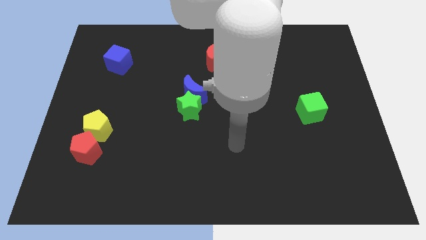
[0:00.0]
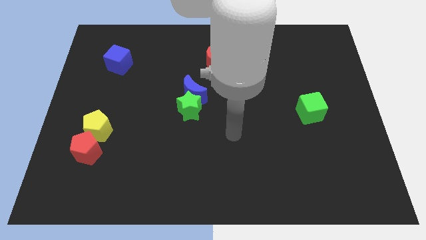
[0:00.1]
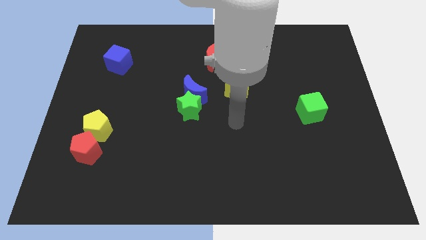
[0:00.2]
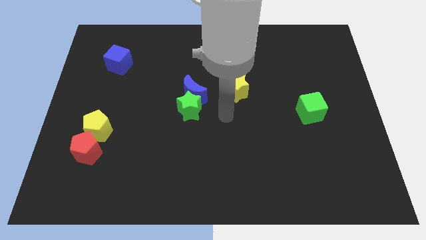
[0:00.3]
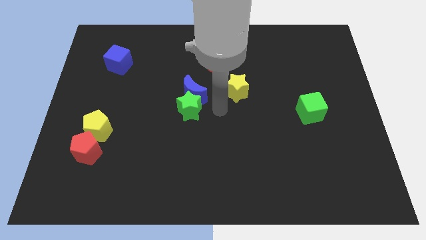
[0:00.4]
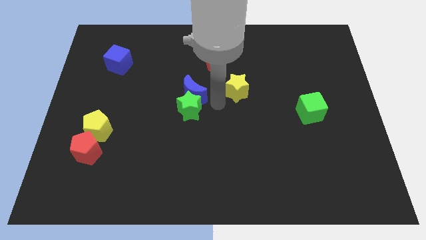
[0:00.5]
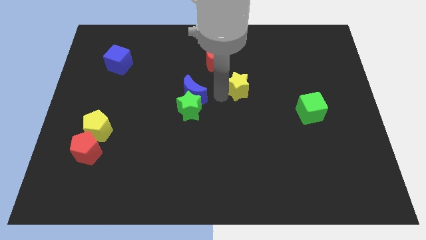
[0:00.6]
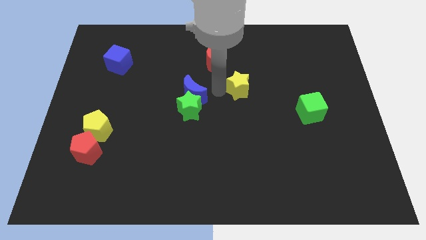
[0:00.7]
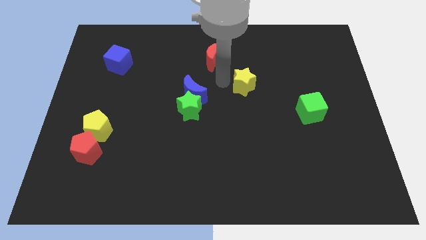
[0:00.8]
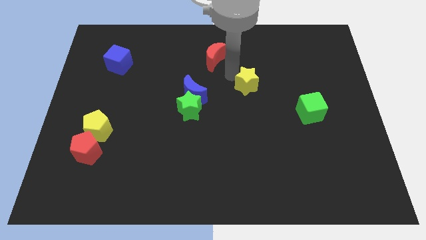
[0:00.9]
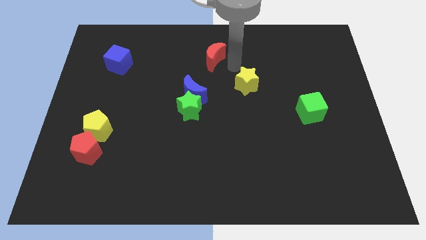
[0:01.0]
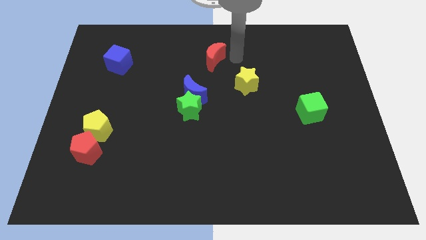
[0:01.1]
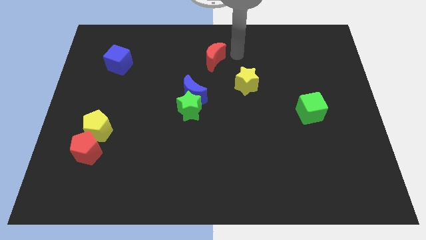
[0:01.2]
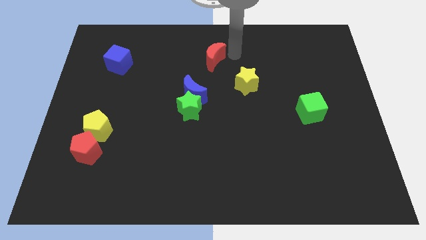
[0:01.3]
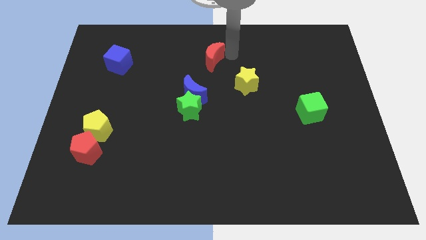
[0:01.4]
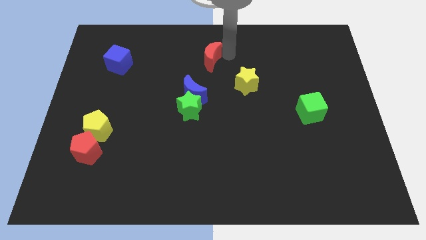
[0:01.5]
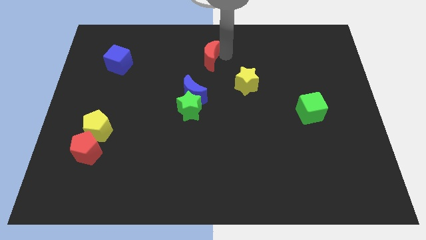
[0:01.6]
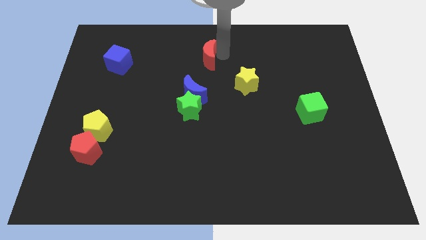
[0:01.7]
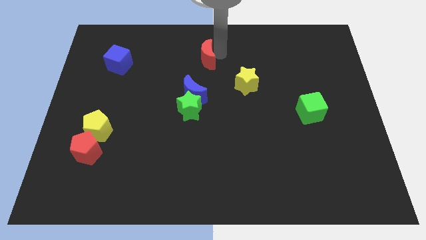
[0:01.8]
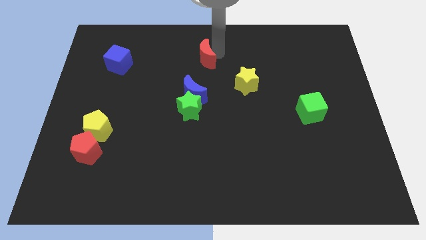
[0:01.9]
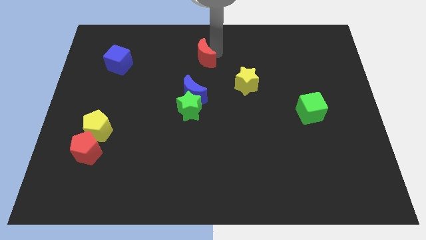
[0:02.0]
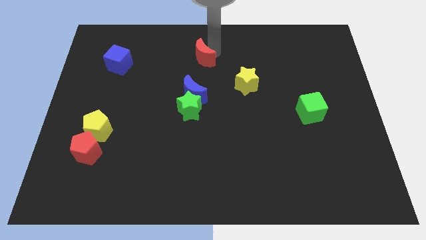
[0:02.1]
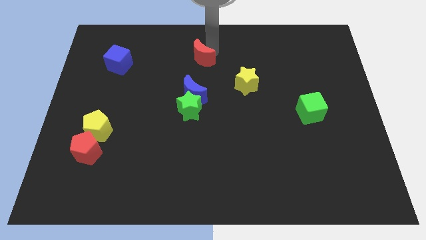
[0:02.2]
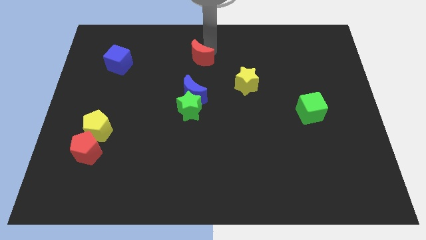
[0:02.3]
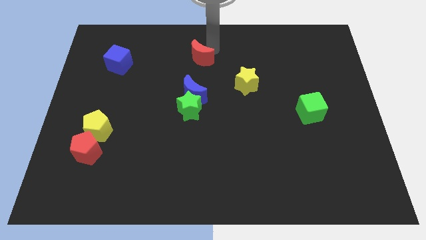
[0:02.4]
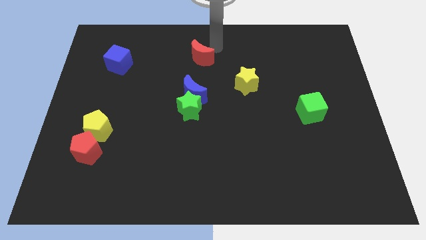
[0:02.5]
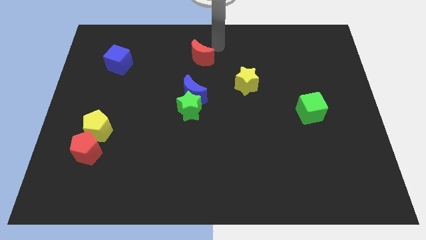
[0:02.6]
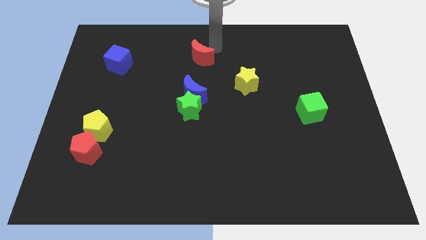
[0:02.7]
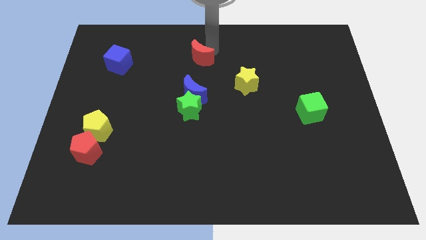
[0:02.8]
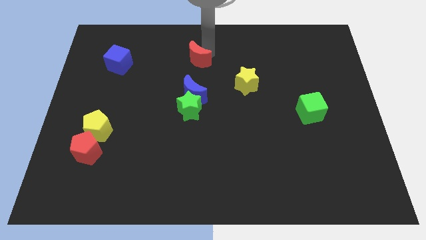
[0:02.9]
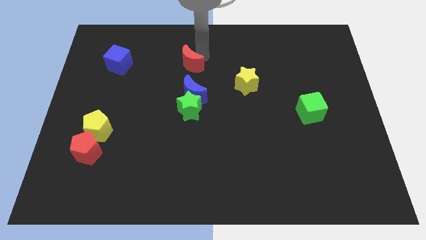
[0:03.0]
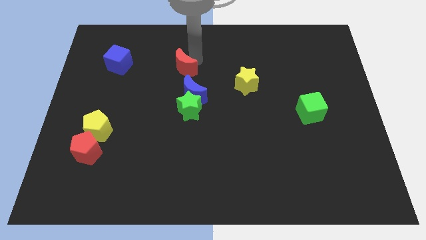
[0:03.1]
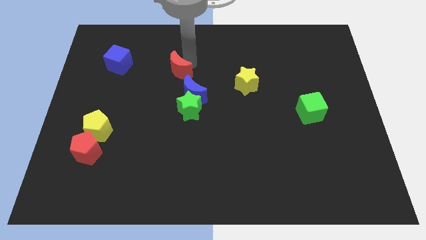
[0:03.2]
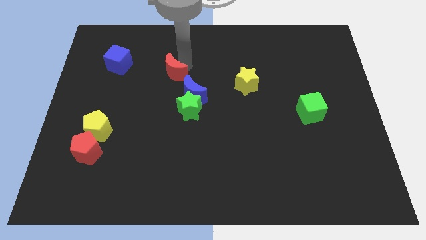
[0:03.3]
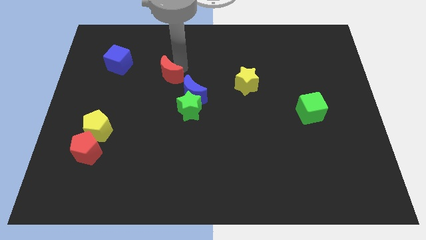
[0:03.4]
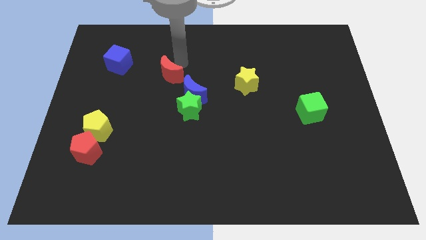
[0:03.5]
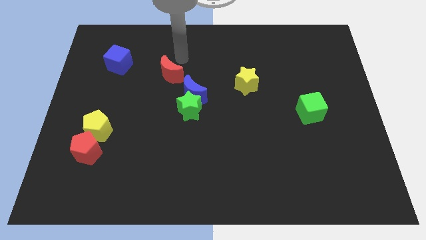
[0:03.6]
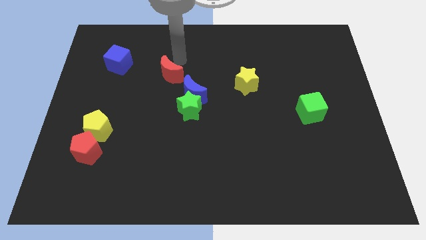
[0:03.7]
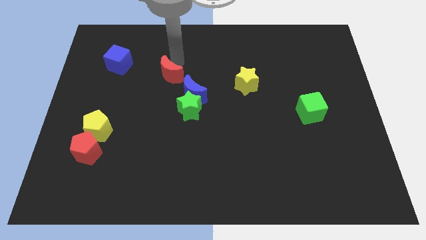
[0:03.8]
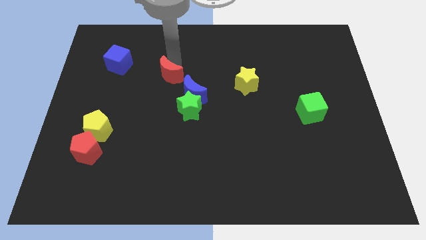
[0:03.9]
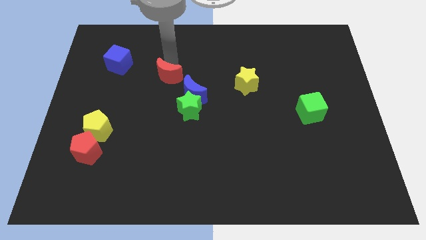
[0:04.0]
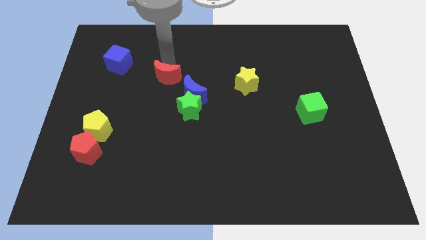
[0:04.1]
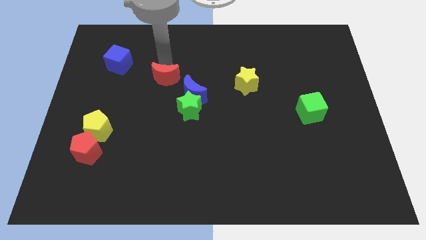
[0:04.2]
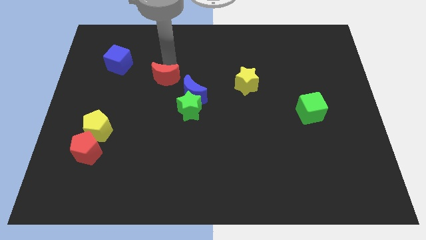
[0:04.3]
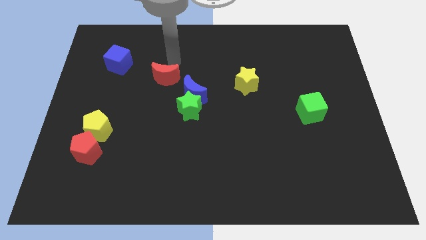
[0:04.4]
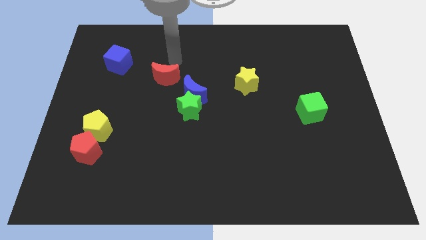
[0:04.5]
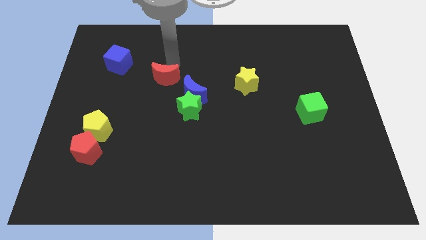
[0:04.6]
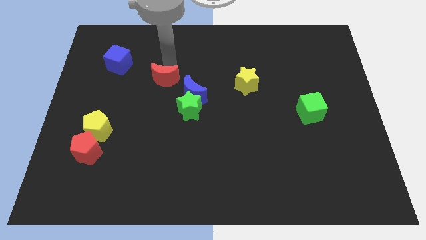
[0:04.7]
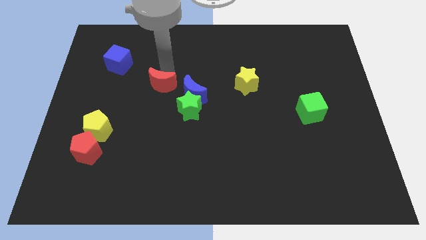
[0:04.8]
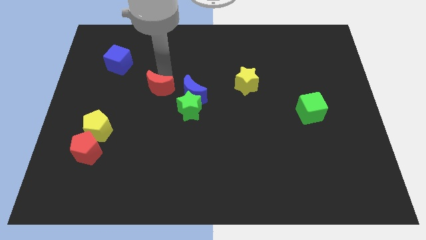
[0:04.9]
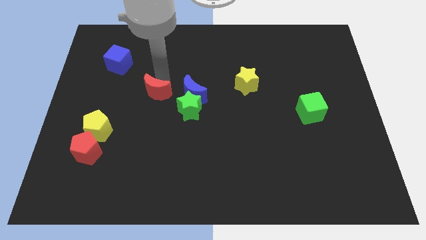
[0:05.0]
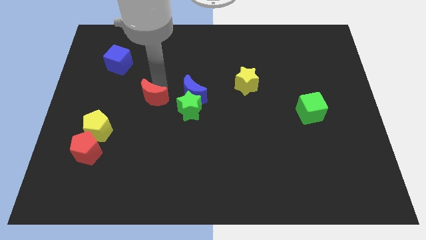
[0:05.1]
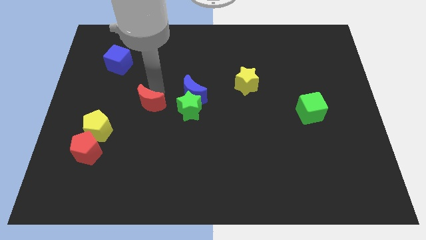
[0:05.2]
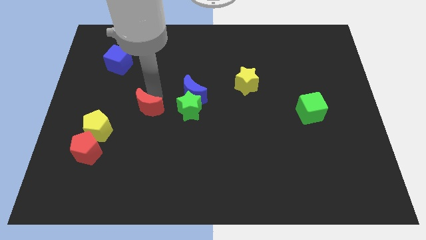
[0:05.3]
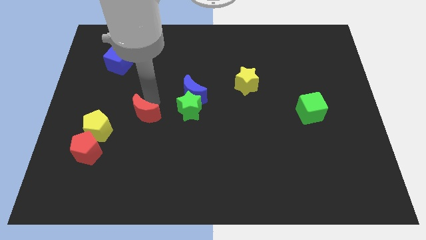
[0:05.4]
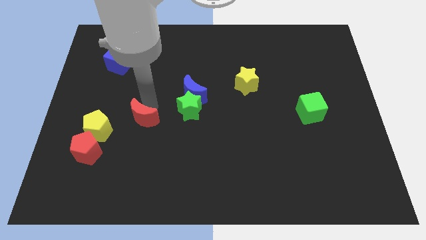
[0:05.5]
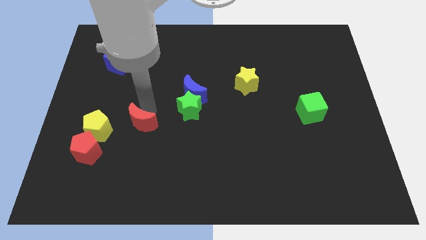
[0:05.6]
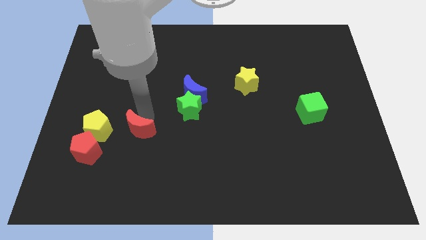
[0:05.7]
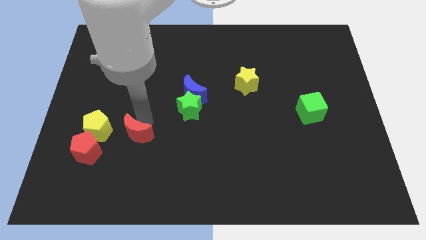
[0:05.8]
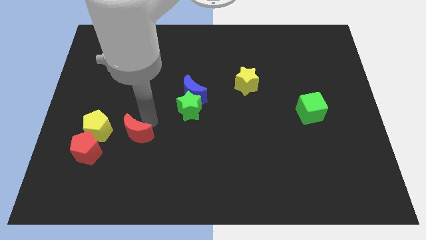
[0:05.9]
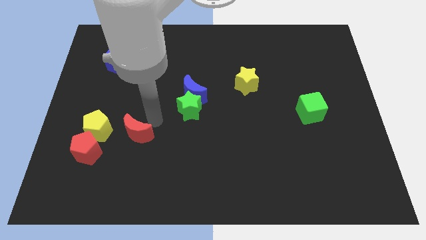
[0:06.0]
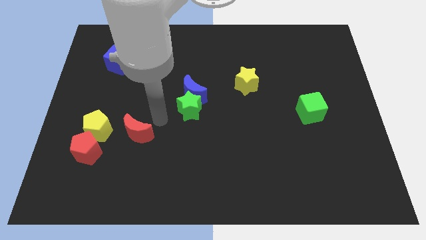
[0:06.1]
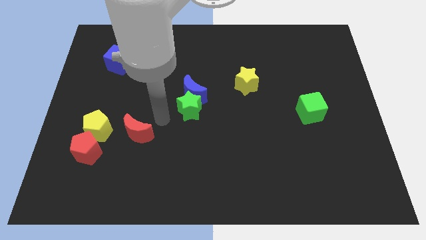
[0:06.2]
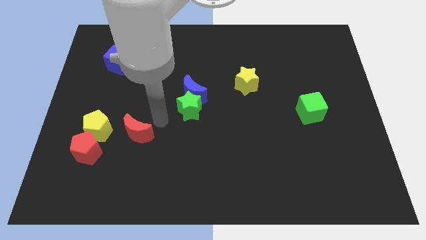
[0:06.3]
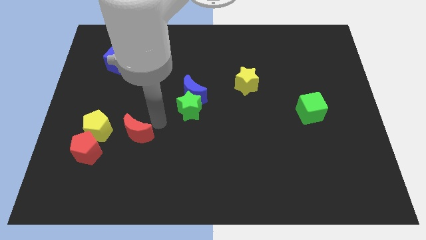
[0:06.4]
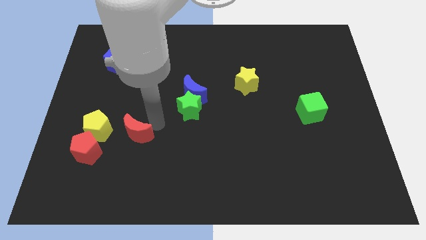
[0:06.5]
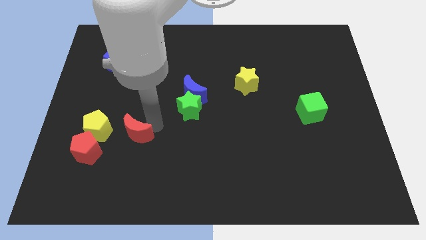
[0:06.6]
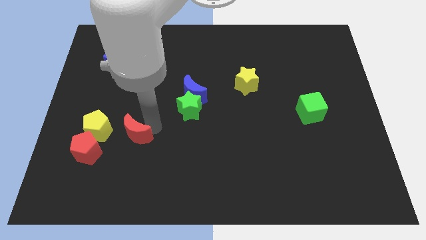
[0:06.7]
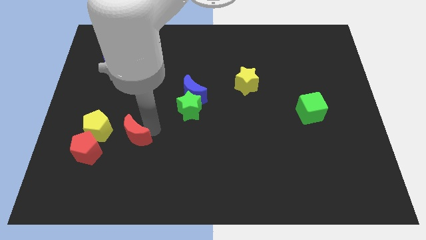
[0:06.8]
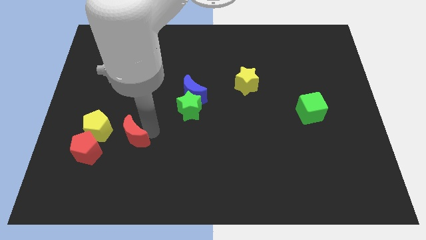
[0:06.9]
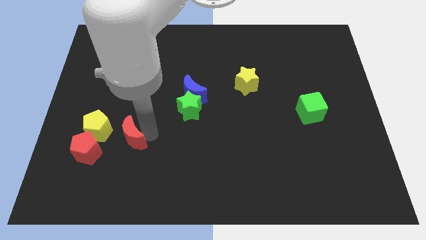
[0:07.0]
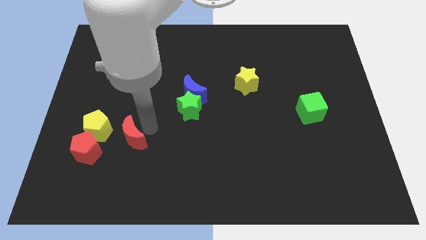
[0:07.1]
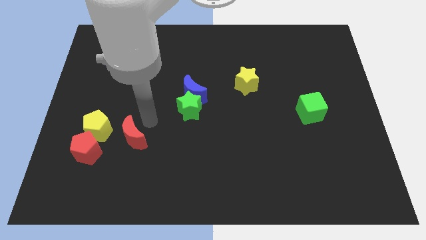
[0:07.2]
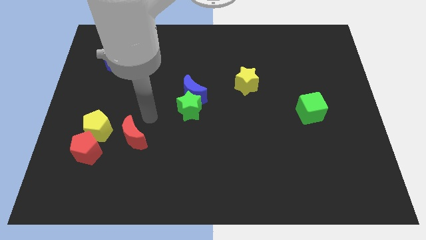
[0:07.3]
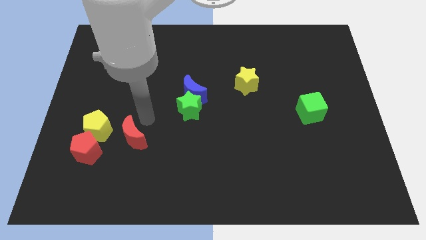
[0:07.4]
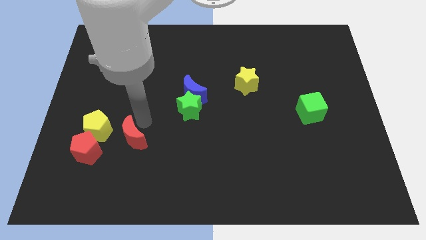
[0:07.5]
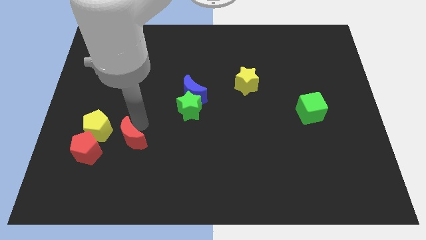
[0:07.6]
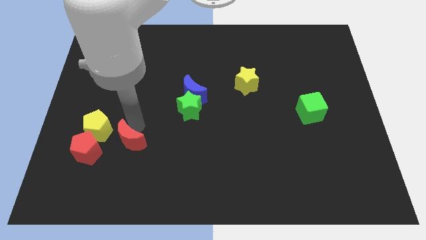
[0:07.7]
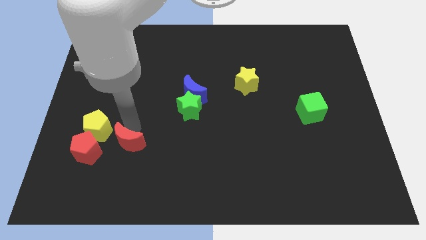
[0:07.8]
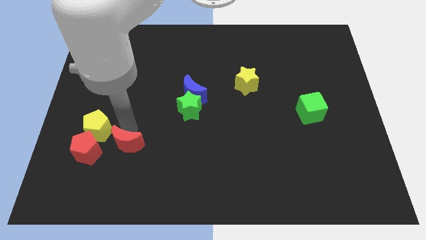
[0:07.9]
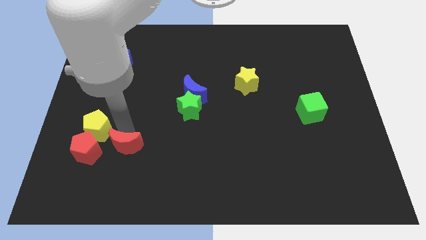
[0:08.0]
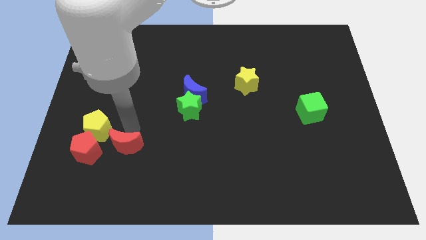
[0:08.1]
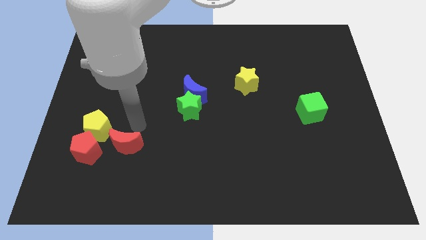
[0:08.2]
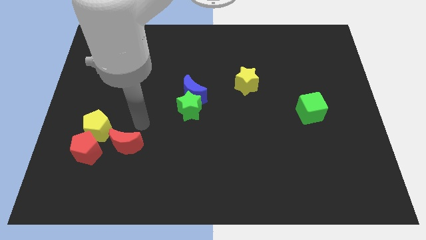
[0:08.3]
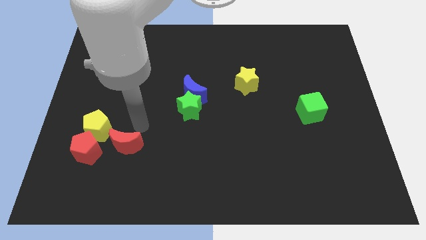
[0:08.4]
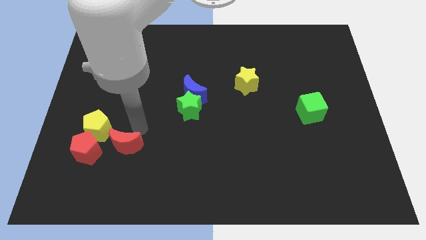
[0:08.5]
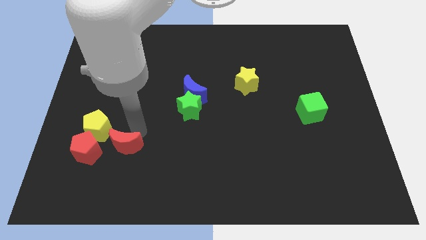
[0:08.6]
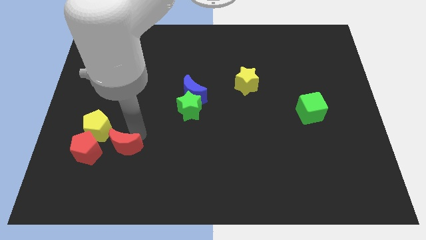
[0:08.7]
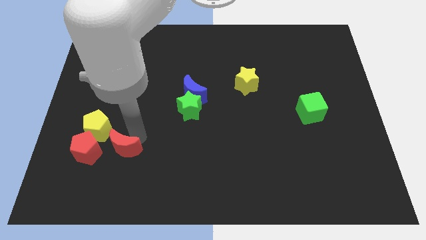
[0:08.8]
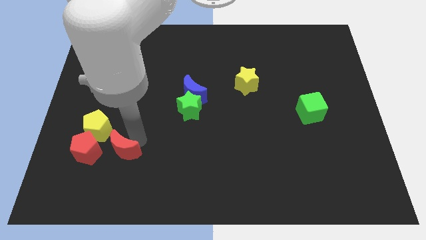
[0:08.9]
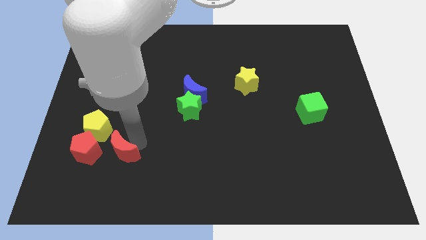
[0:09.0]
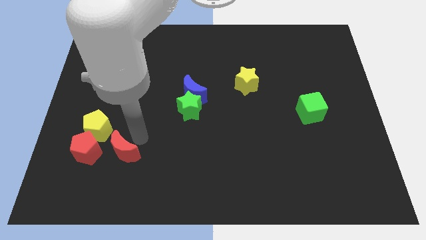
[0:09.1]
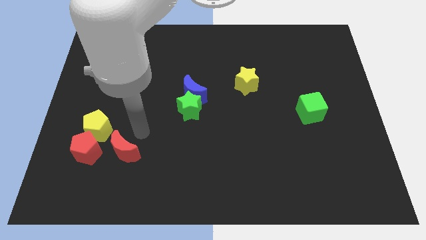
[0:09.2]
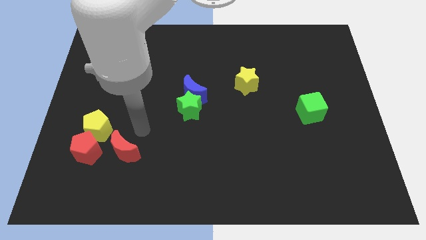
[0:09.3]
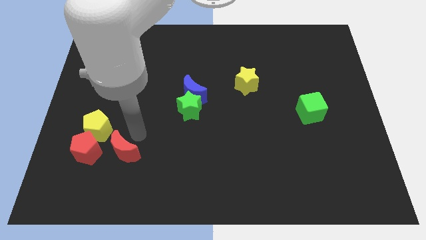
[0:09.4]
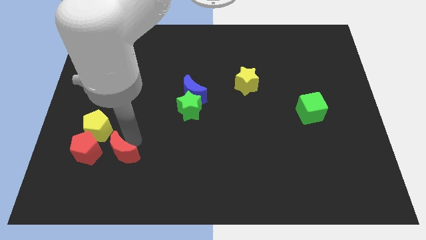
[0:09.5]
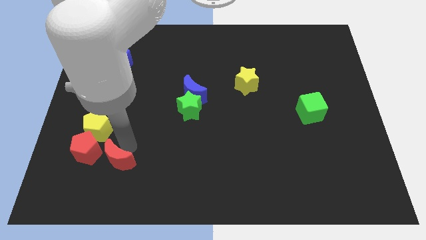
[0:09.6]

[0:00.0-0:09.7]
move the red moon diagonally down and to the right of the red pentagon
